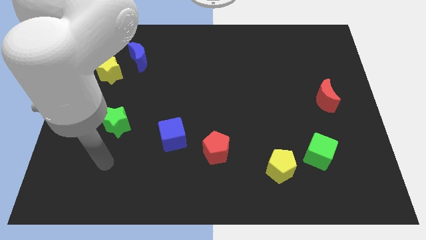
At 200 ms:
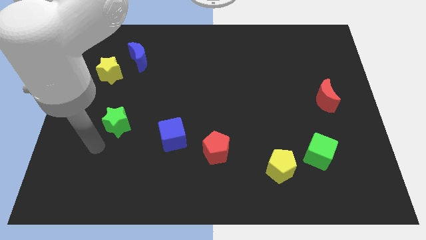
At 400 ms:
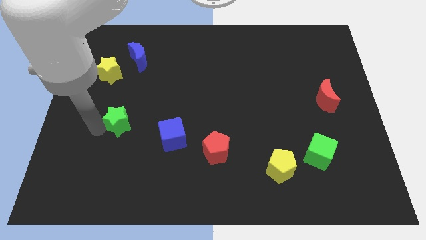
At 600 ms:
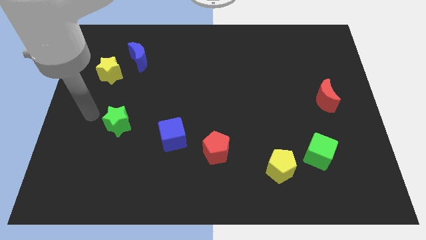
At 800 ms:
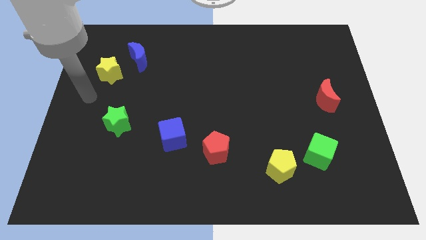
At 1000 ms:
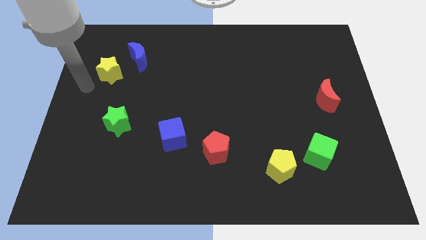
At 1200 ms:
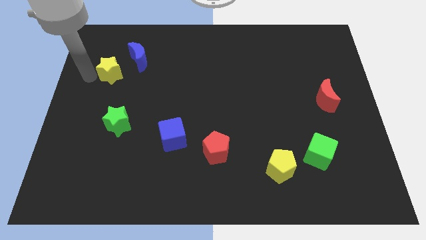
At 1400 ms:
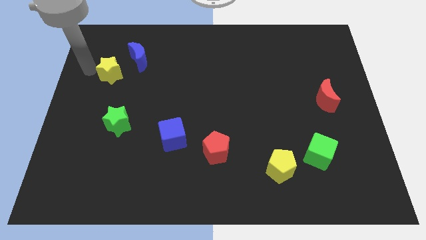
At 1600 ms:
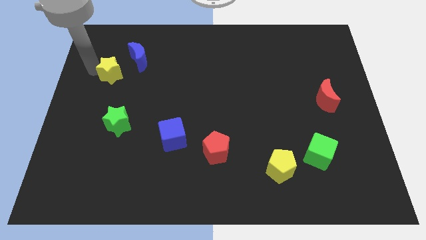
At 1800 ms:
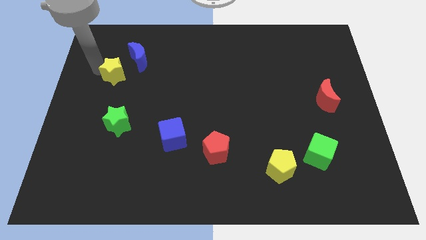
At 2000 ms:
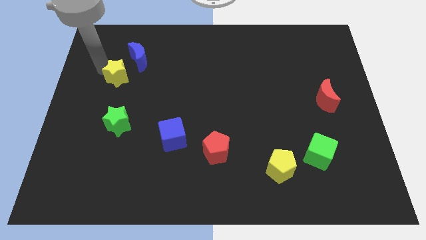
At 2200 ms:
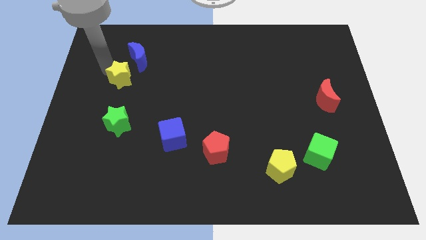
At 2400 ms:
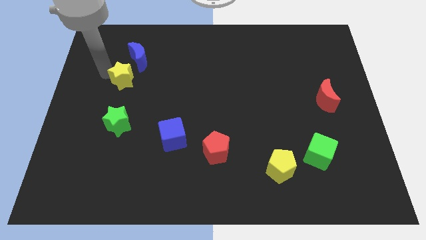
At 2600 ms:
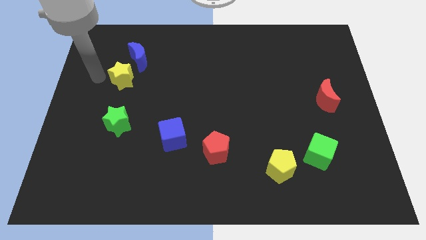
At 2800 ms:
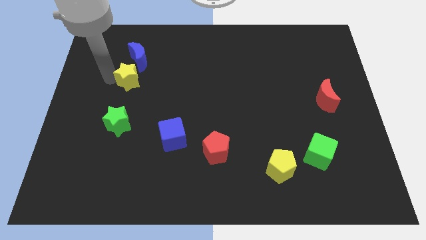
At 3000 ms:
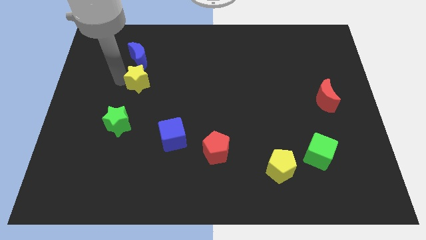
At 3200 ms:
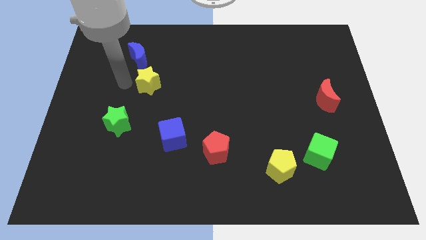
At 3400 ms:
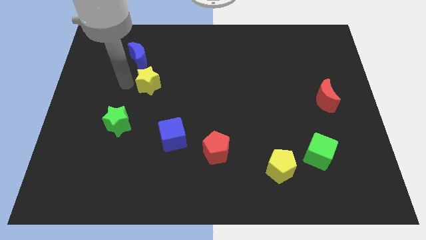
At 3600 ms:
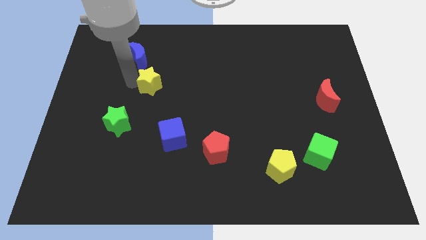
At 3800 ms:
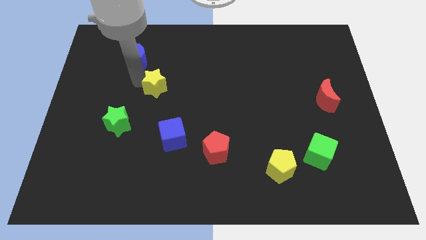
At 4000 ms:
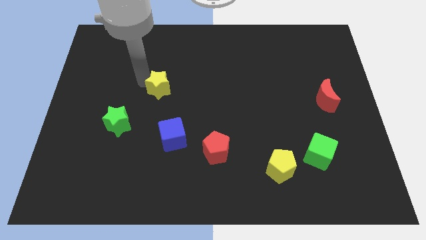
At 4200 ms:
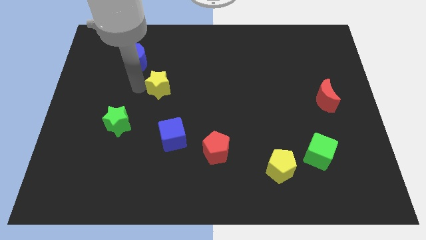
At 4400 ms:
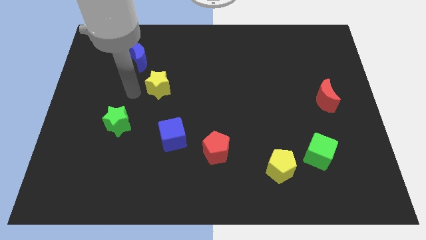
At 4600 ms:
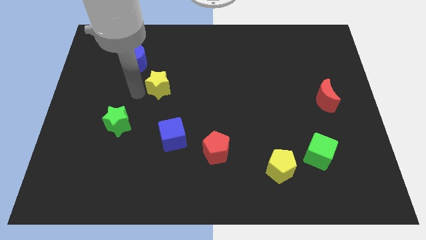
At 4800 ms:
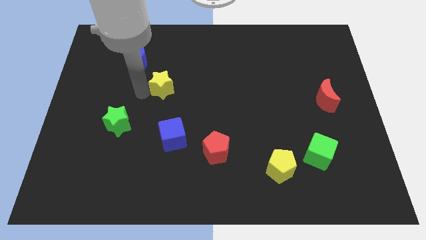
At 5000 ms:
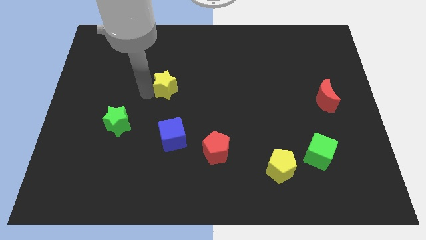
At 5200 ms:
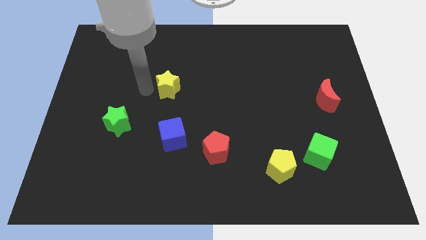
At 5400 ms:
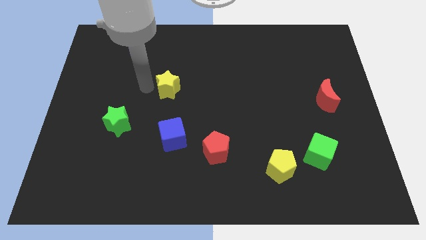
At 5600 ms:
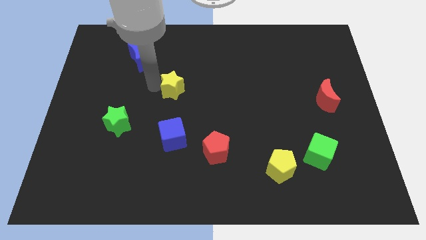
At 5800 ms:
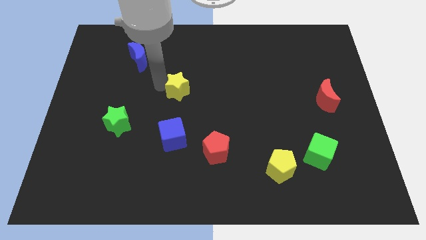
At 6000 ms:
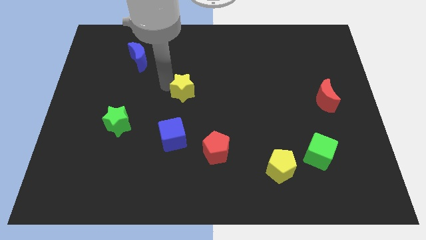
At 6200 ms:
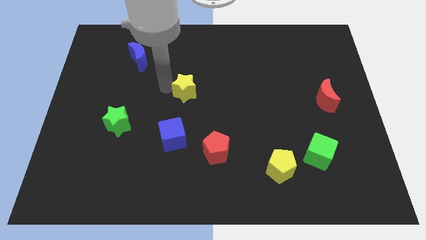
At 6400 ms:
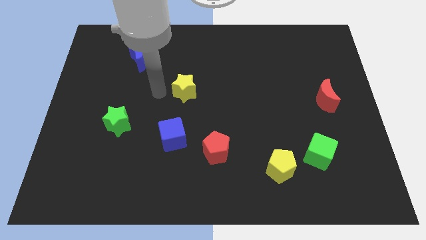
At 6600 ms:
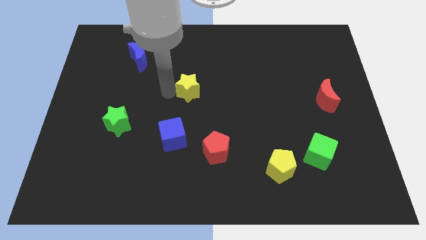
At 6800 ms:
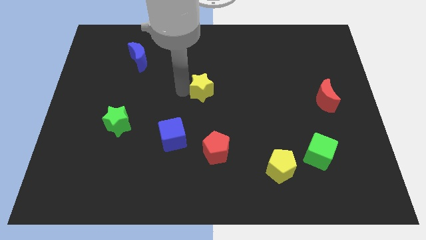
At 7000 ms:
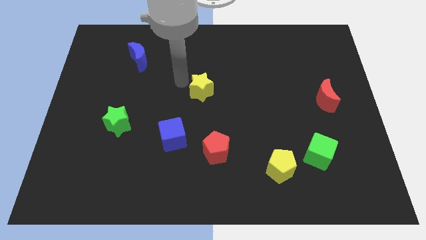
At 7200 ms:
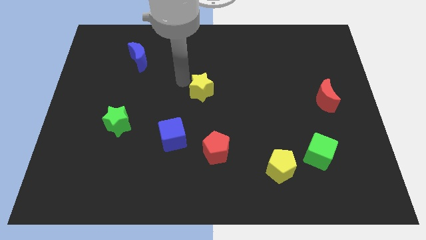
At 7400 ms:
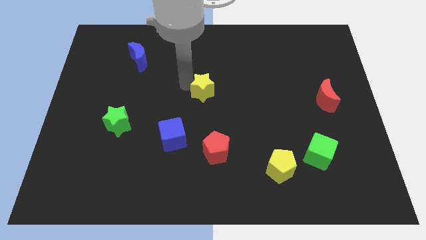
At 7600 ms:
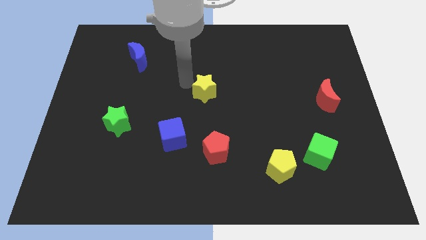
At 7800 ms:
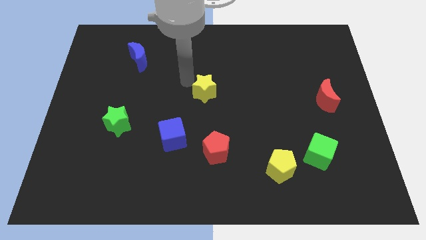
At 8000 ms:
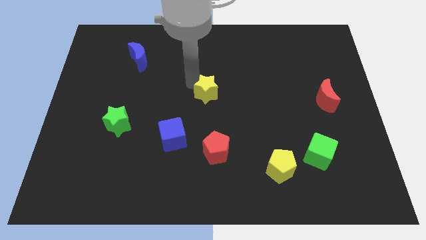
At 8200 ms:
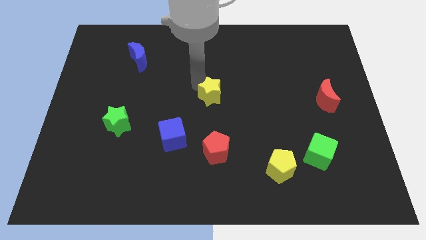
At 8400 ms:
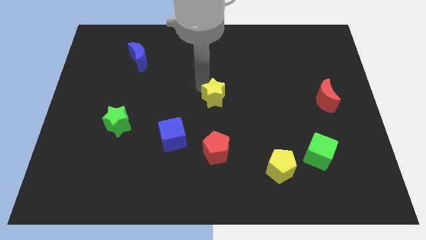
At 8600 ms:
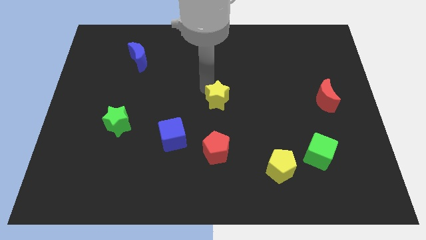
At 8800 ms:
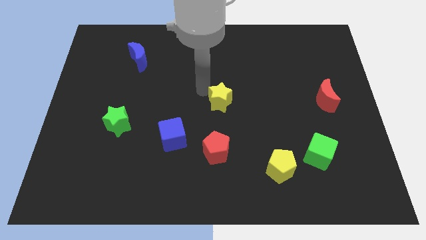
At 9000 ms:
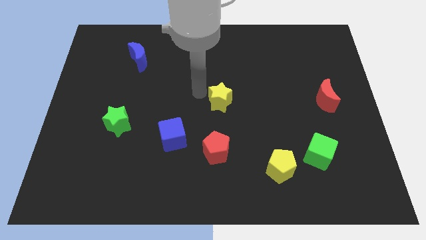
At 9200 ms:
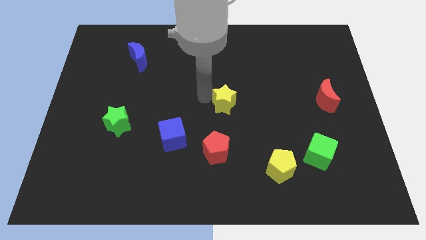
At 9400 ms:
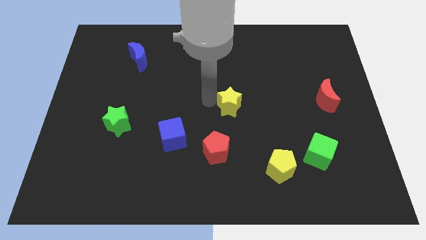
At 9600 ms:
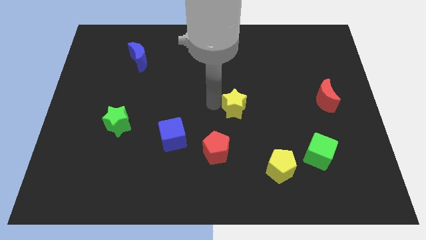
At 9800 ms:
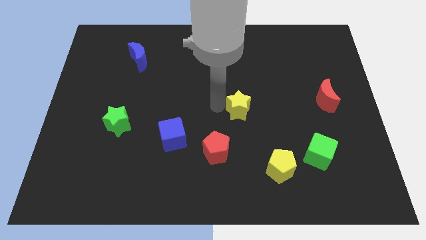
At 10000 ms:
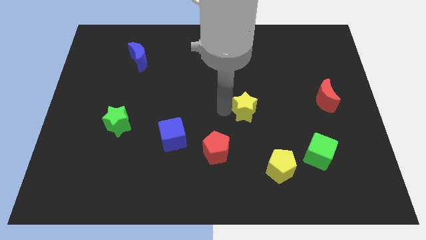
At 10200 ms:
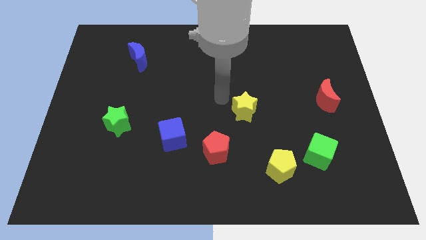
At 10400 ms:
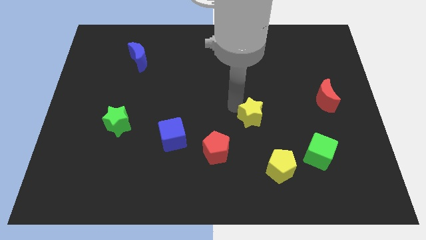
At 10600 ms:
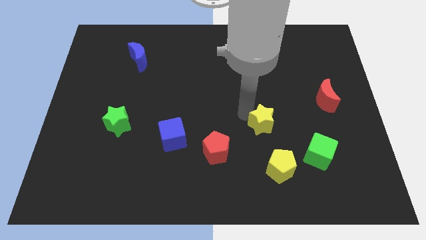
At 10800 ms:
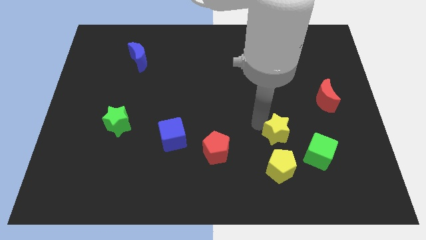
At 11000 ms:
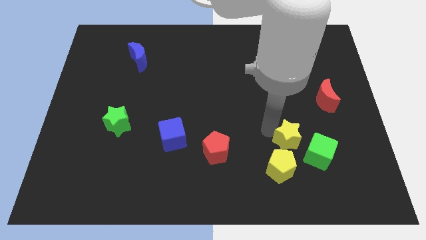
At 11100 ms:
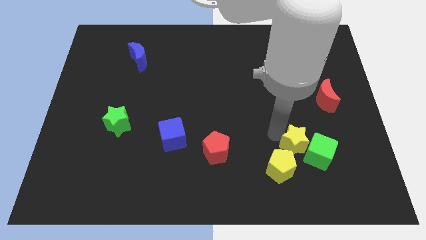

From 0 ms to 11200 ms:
move the yellow star close to the green cube

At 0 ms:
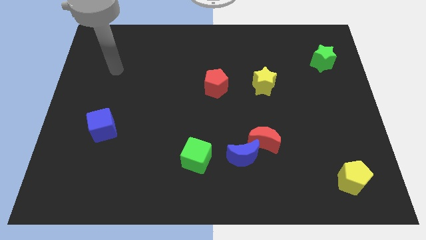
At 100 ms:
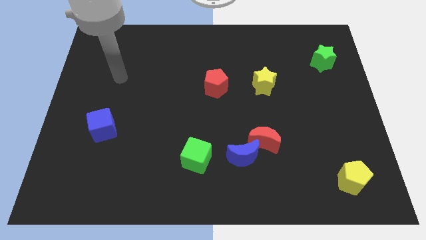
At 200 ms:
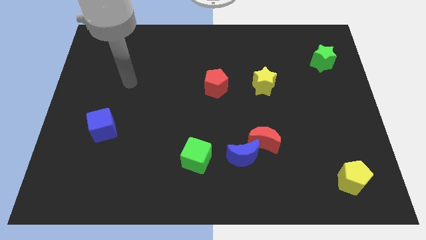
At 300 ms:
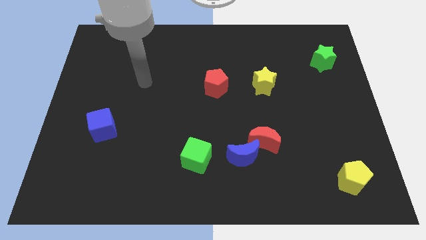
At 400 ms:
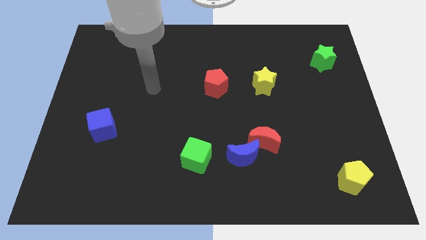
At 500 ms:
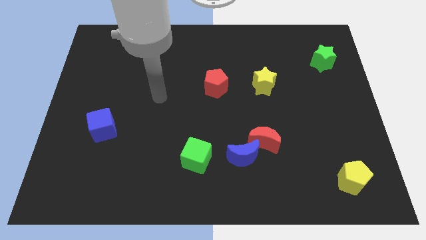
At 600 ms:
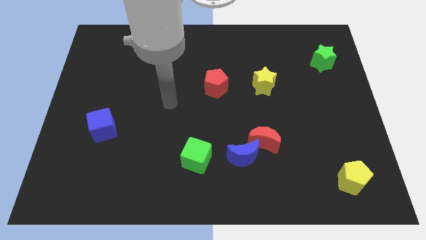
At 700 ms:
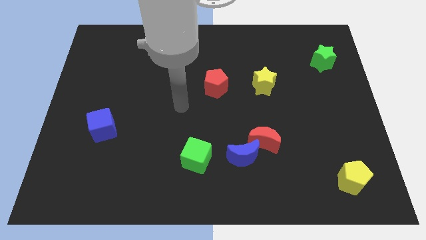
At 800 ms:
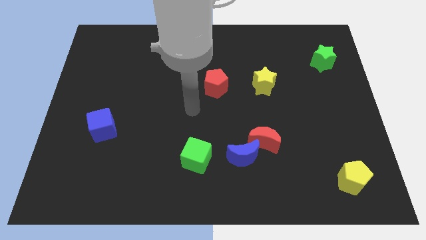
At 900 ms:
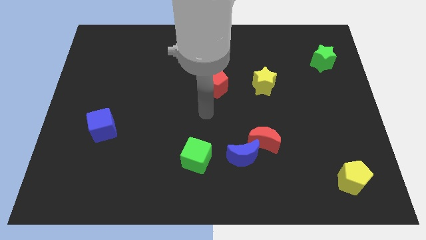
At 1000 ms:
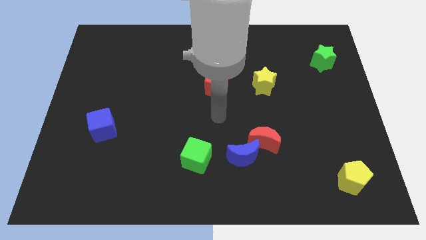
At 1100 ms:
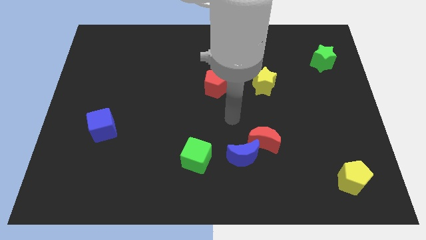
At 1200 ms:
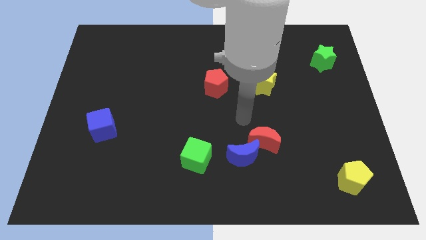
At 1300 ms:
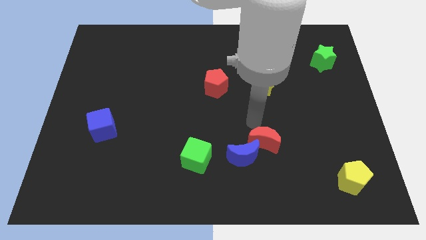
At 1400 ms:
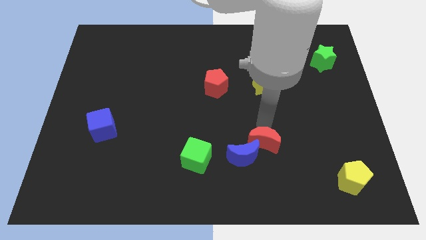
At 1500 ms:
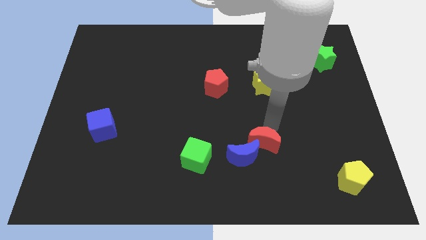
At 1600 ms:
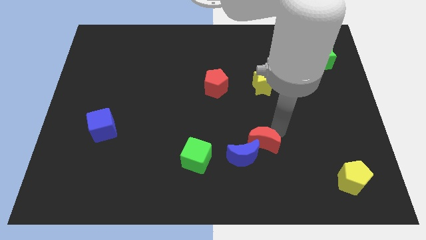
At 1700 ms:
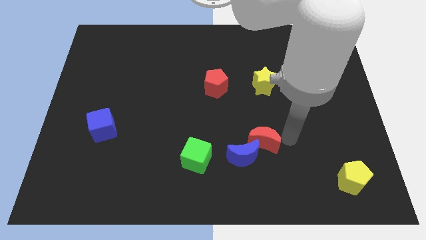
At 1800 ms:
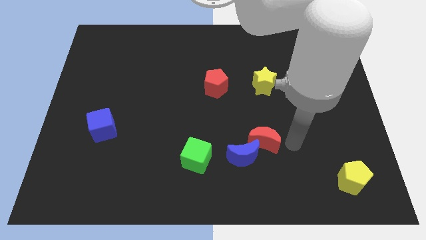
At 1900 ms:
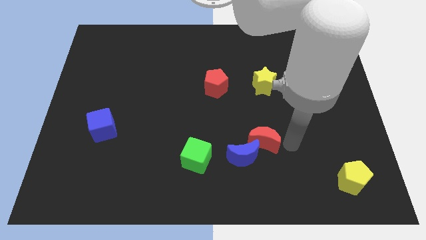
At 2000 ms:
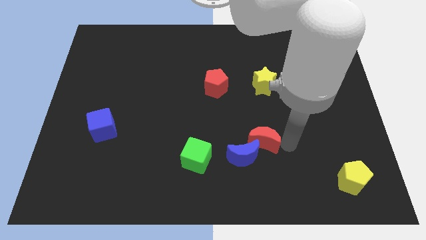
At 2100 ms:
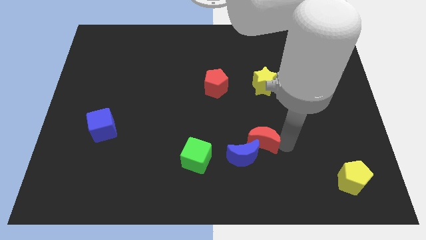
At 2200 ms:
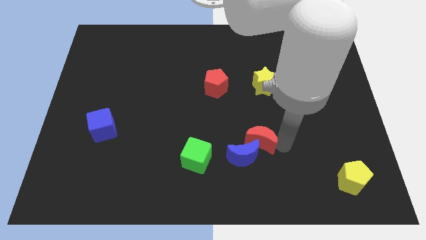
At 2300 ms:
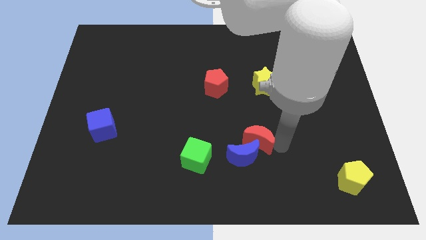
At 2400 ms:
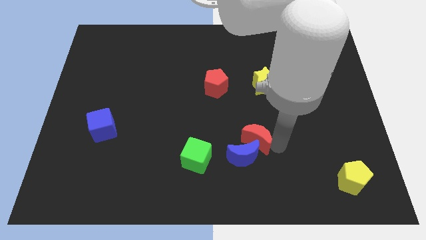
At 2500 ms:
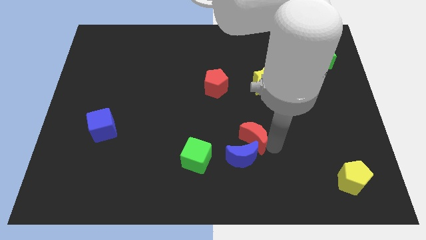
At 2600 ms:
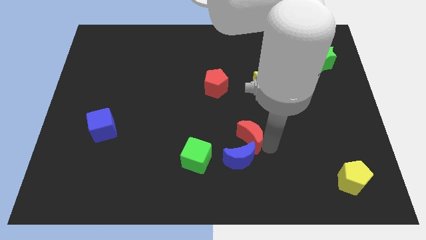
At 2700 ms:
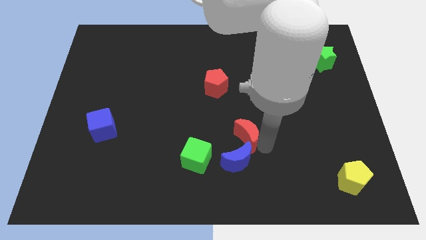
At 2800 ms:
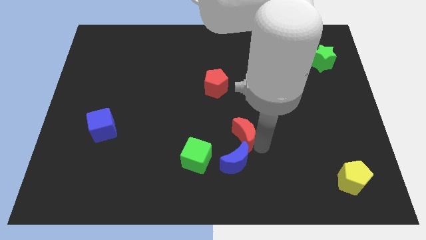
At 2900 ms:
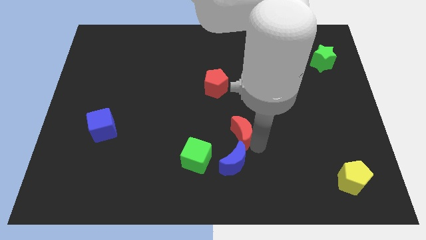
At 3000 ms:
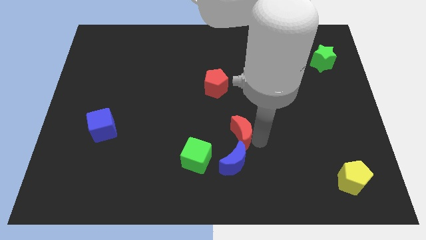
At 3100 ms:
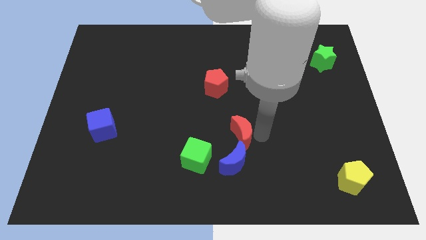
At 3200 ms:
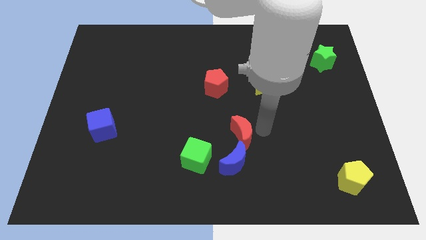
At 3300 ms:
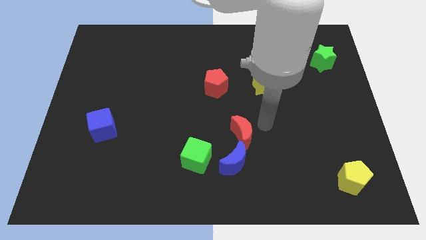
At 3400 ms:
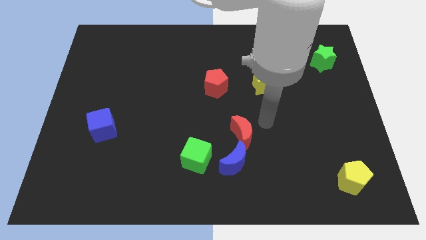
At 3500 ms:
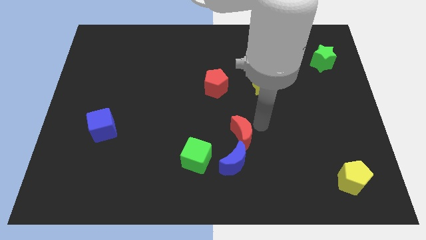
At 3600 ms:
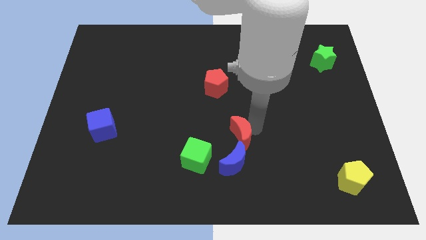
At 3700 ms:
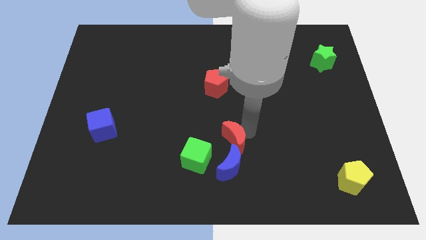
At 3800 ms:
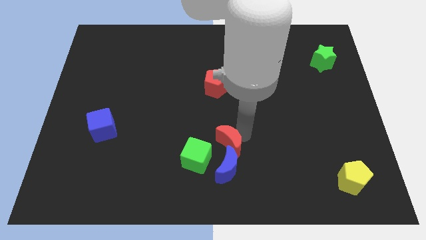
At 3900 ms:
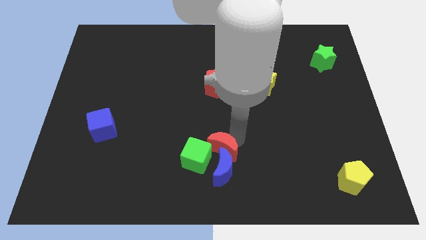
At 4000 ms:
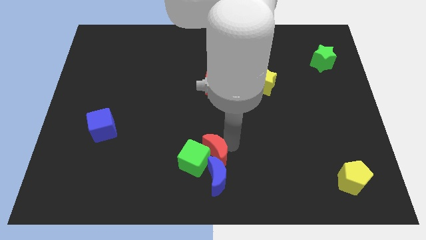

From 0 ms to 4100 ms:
move the red moon towards the green cube
